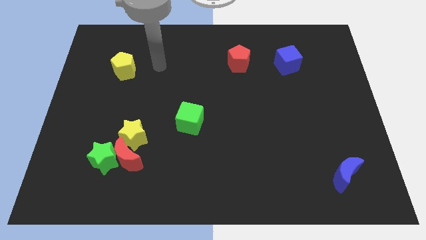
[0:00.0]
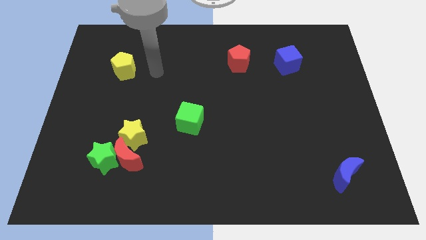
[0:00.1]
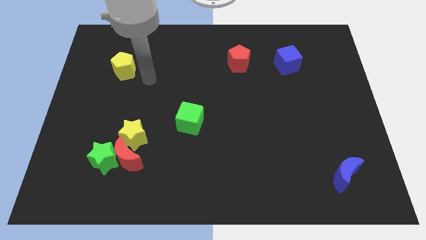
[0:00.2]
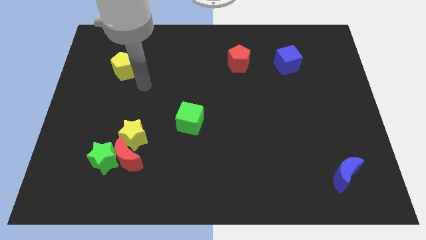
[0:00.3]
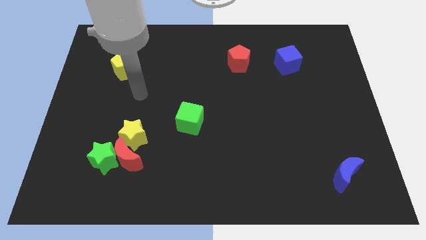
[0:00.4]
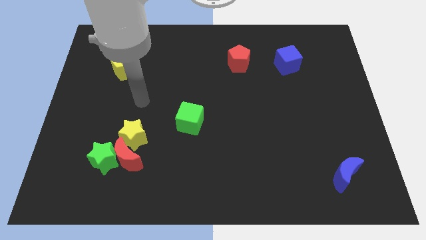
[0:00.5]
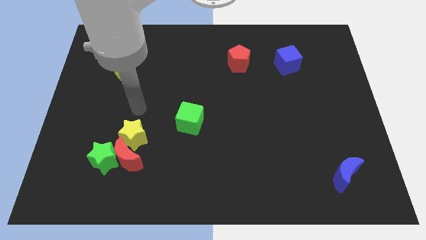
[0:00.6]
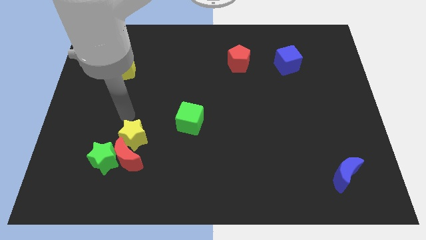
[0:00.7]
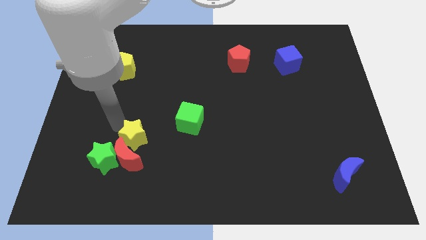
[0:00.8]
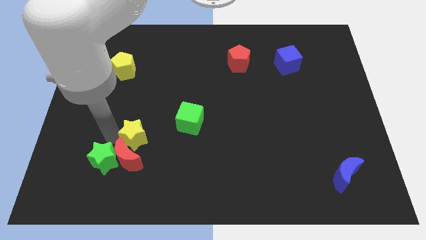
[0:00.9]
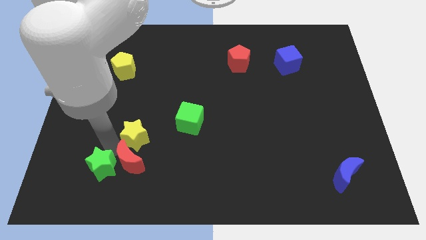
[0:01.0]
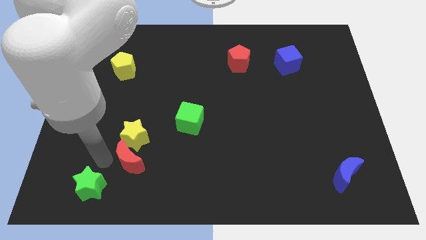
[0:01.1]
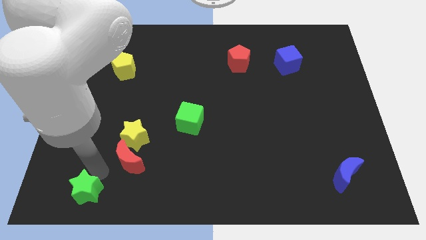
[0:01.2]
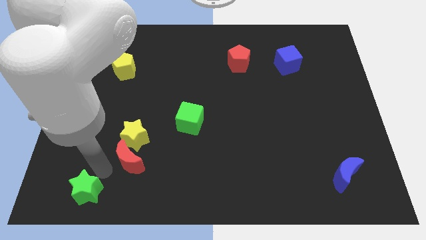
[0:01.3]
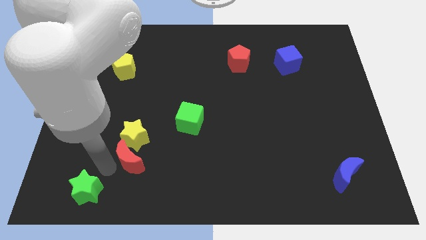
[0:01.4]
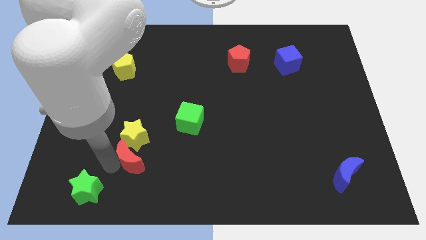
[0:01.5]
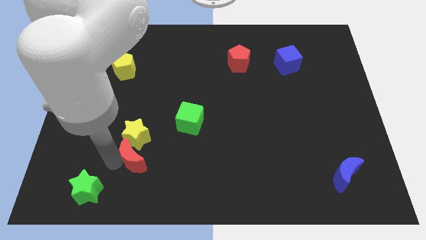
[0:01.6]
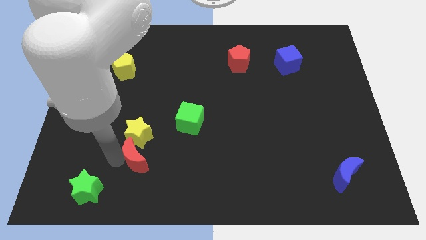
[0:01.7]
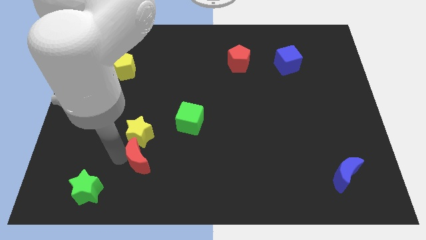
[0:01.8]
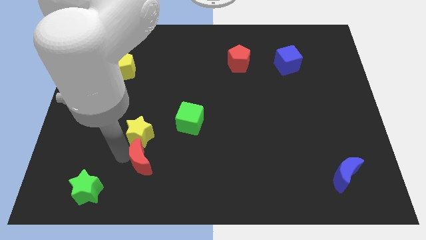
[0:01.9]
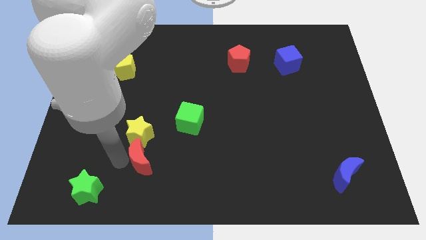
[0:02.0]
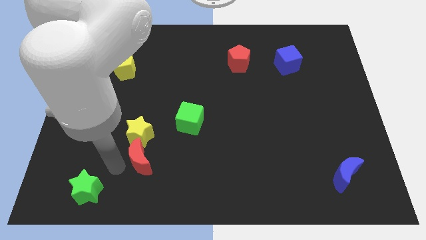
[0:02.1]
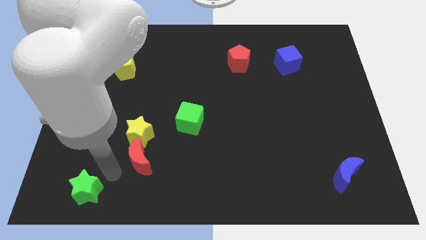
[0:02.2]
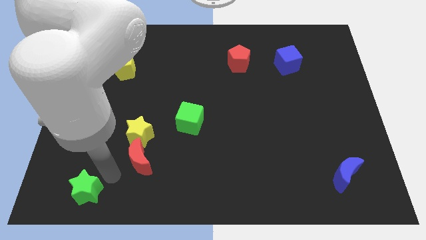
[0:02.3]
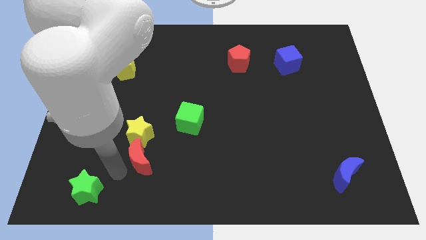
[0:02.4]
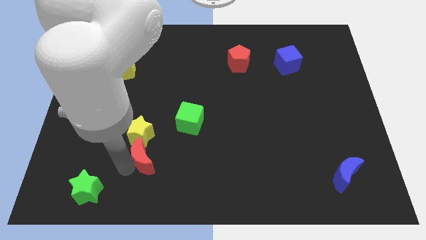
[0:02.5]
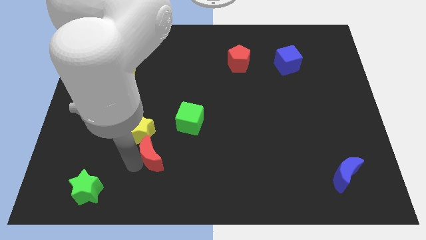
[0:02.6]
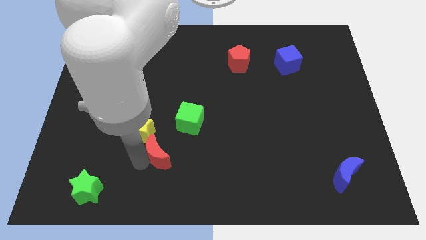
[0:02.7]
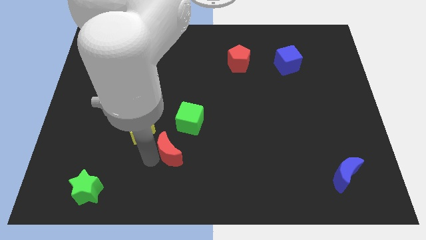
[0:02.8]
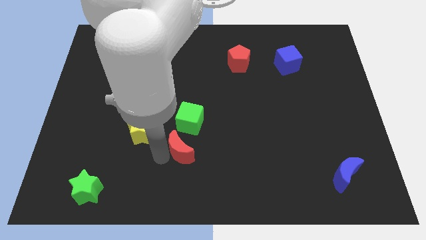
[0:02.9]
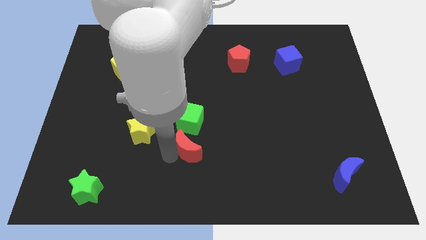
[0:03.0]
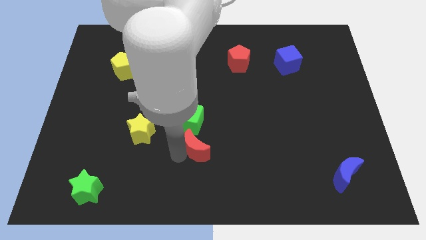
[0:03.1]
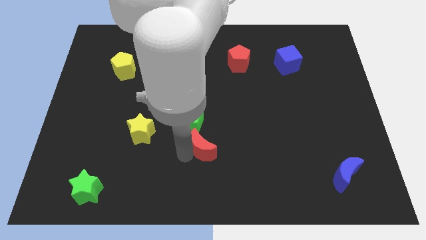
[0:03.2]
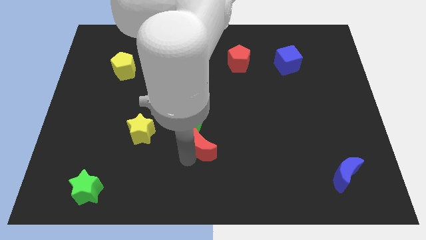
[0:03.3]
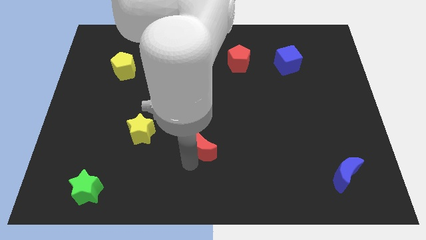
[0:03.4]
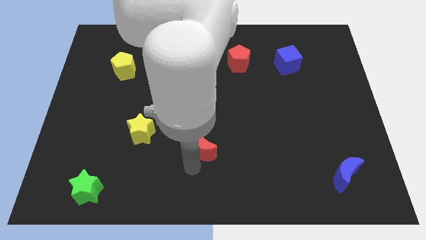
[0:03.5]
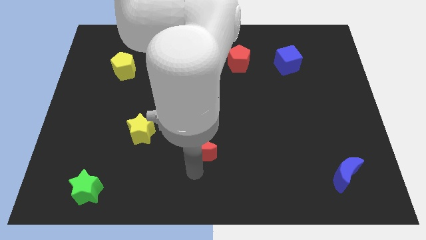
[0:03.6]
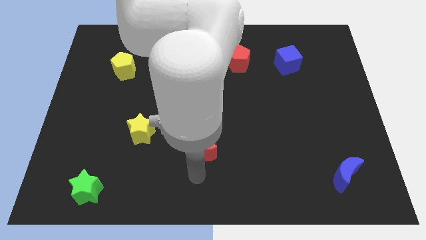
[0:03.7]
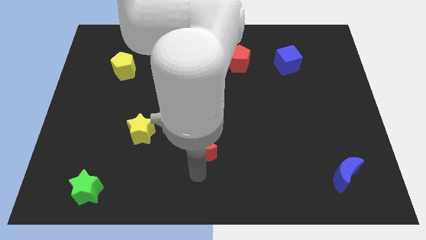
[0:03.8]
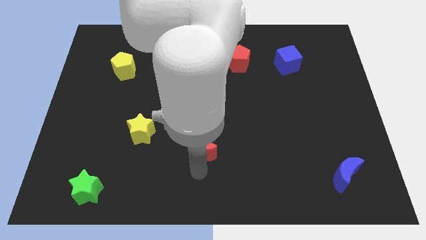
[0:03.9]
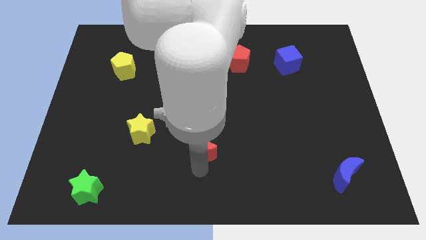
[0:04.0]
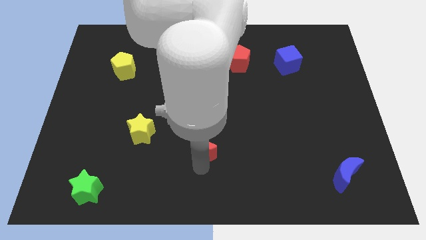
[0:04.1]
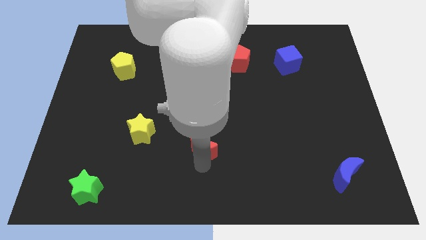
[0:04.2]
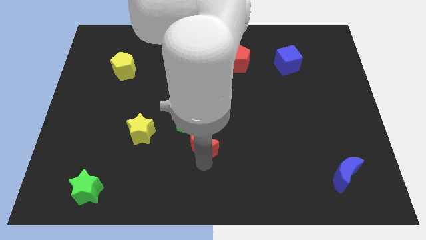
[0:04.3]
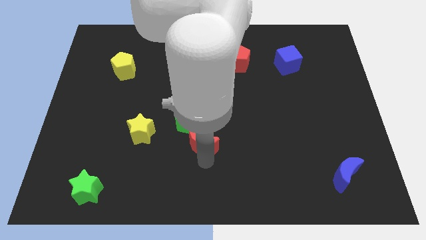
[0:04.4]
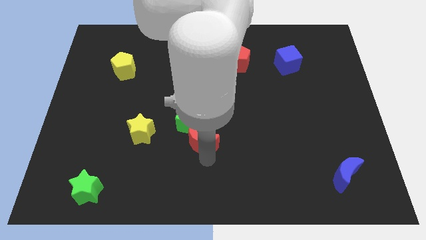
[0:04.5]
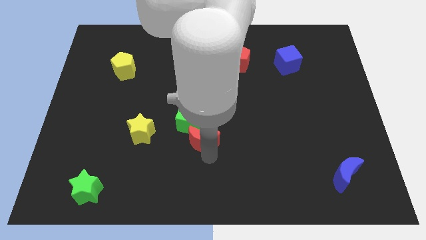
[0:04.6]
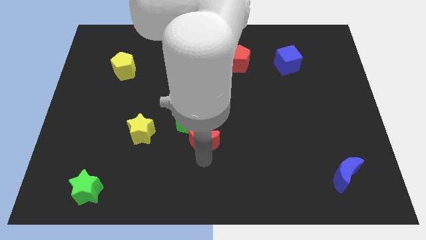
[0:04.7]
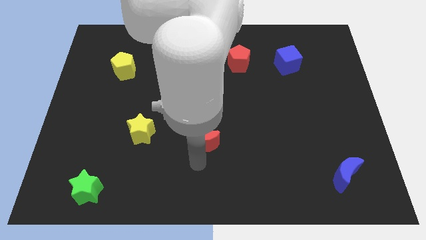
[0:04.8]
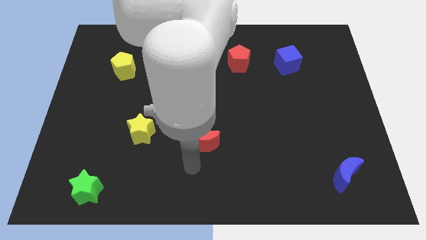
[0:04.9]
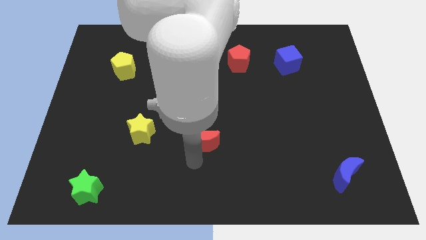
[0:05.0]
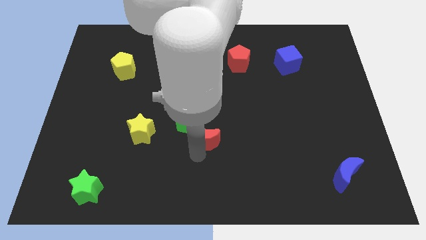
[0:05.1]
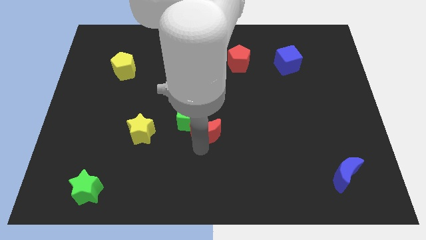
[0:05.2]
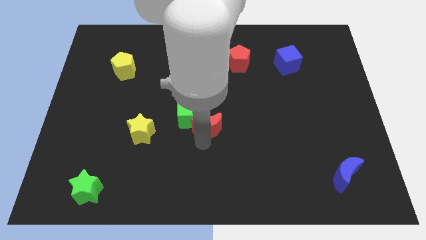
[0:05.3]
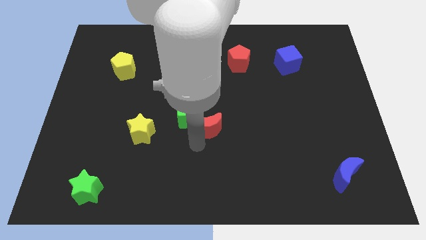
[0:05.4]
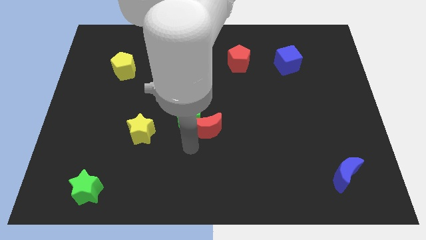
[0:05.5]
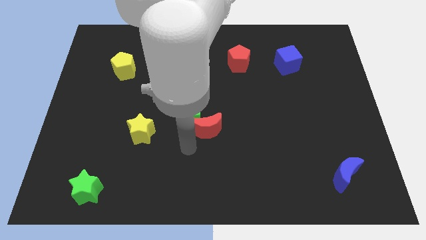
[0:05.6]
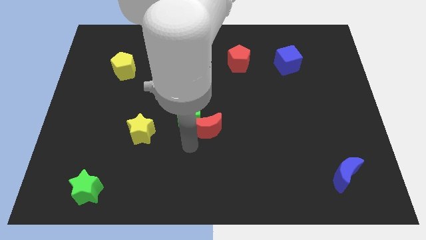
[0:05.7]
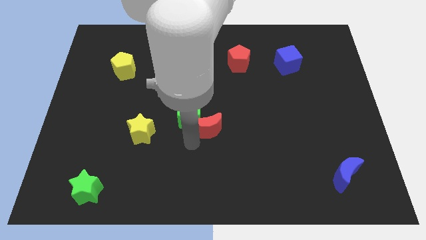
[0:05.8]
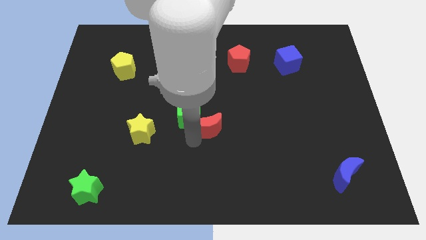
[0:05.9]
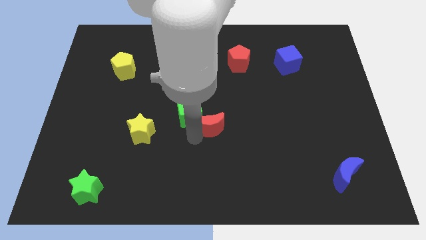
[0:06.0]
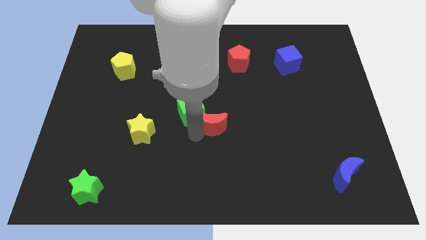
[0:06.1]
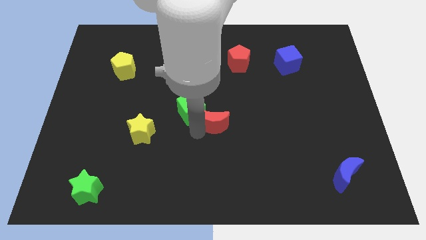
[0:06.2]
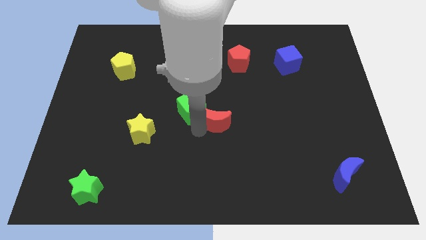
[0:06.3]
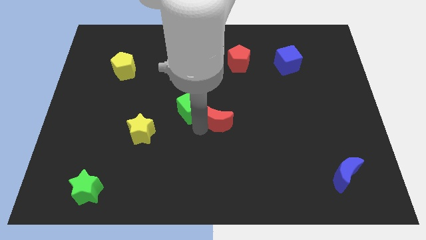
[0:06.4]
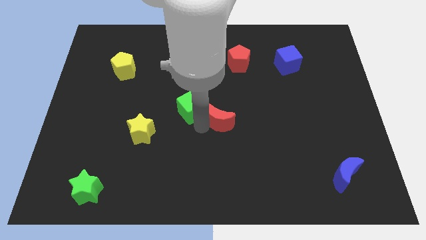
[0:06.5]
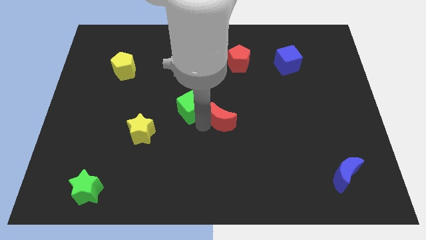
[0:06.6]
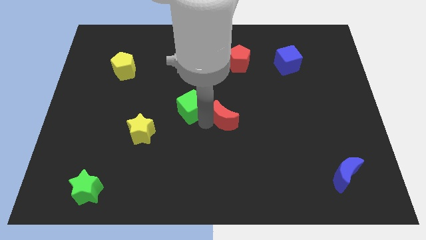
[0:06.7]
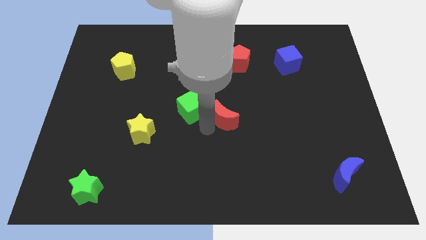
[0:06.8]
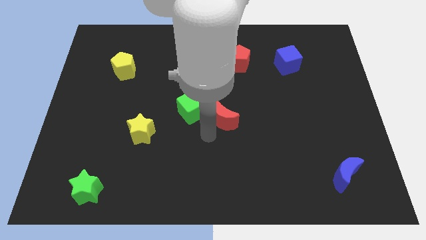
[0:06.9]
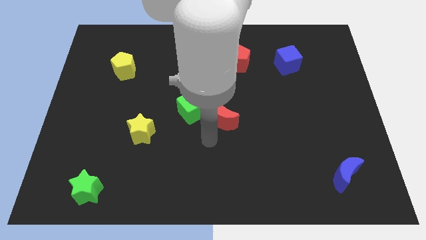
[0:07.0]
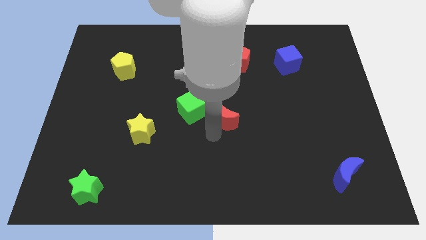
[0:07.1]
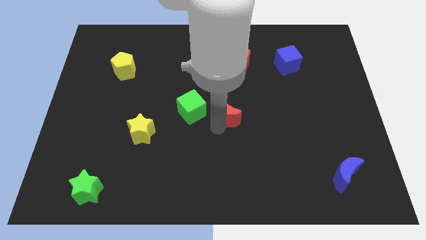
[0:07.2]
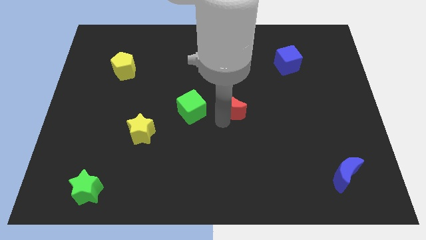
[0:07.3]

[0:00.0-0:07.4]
push the red moon to the bottom side of the red pentagon

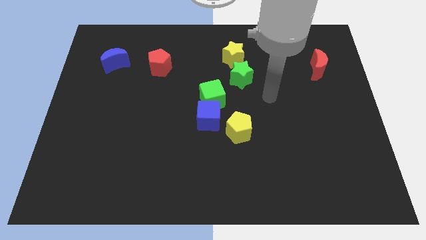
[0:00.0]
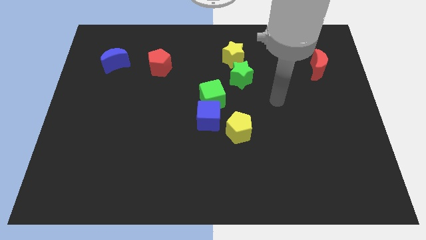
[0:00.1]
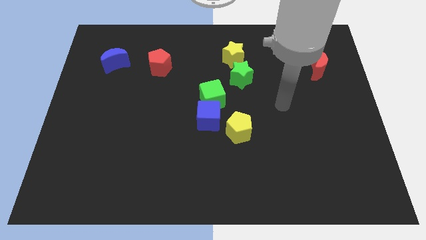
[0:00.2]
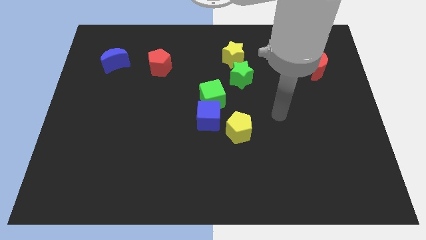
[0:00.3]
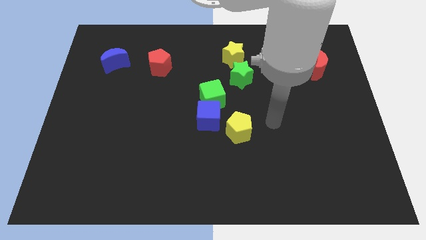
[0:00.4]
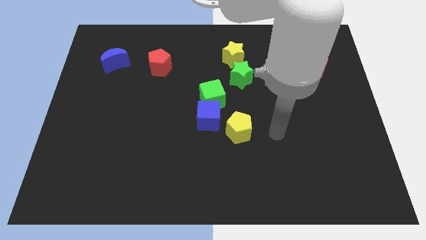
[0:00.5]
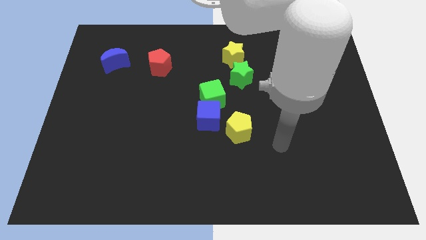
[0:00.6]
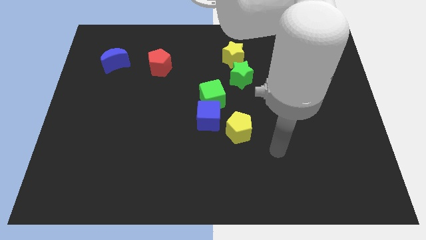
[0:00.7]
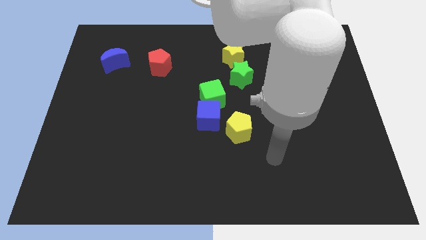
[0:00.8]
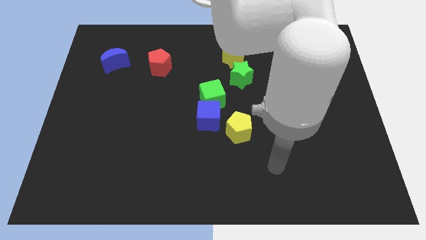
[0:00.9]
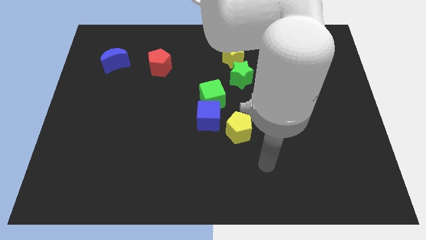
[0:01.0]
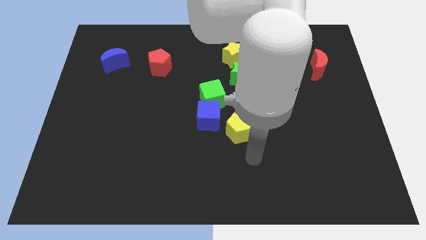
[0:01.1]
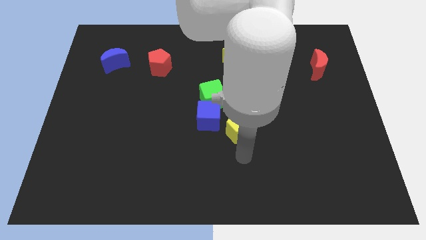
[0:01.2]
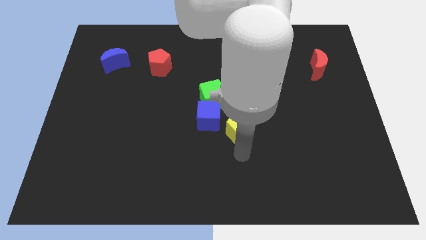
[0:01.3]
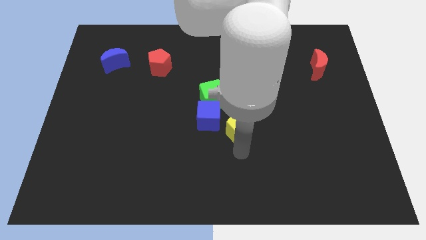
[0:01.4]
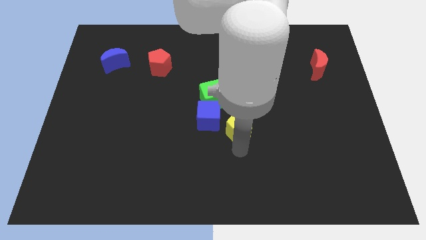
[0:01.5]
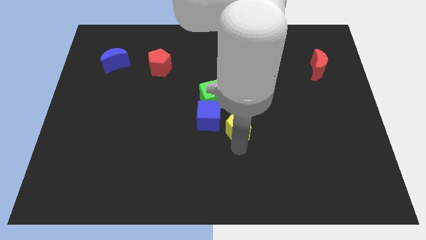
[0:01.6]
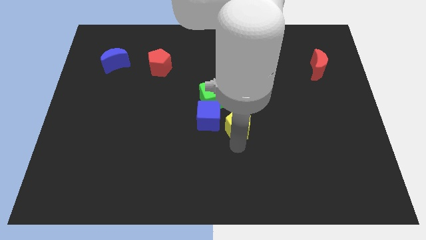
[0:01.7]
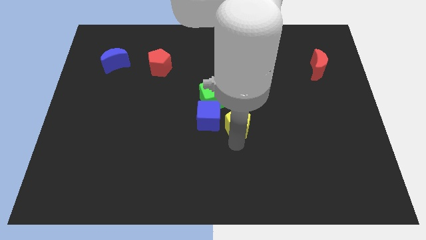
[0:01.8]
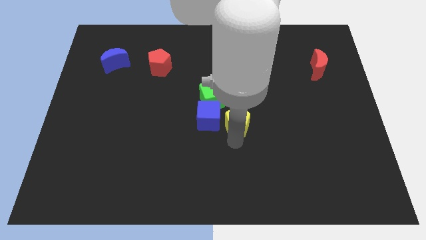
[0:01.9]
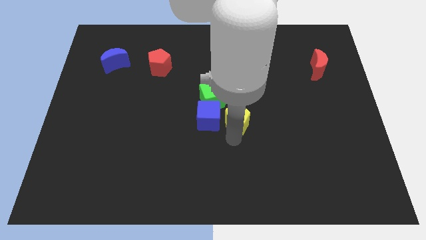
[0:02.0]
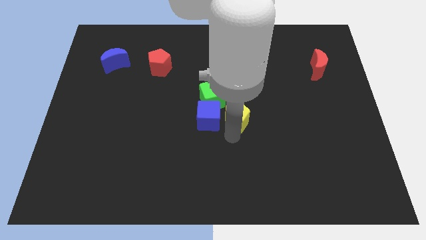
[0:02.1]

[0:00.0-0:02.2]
move the yellow pentagon diagonally up and to the right of the blue cube
